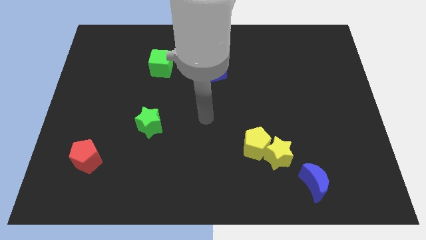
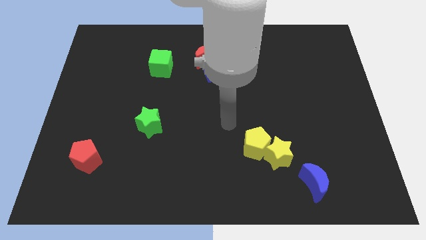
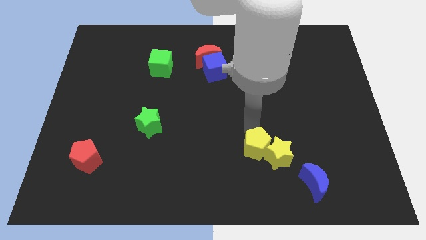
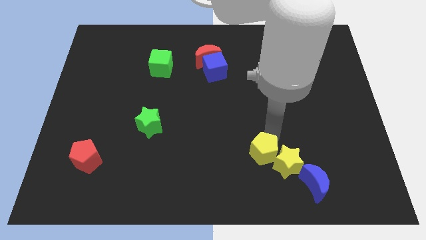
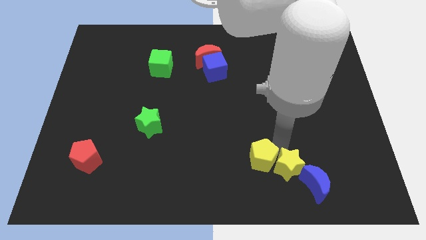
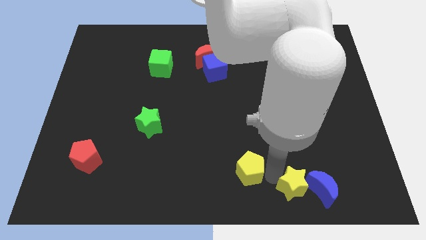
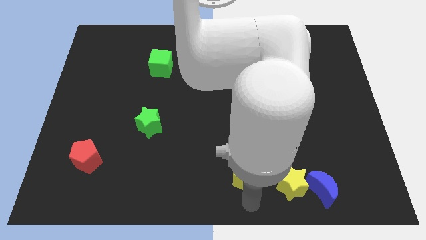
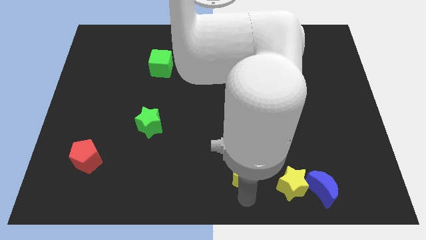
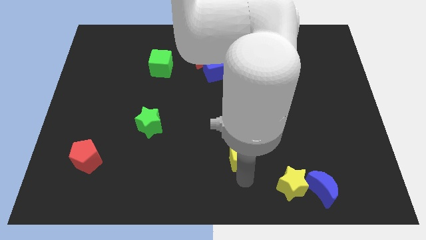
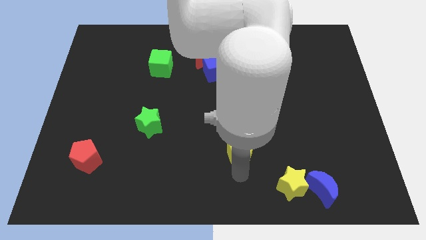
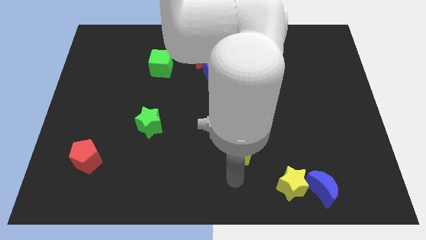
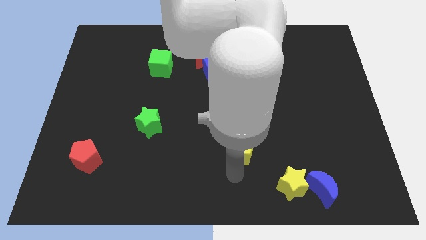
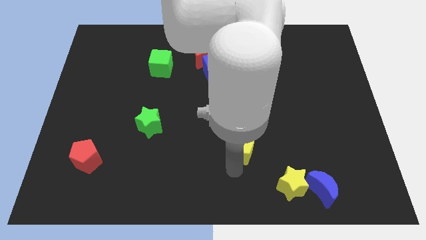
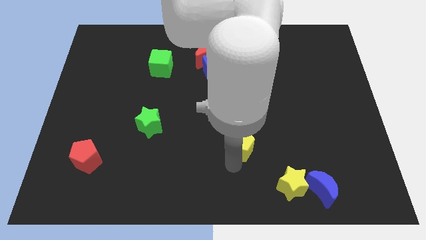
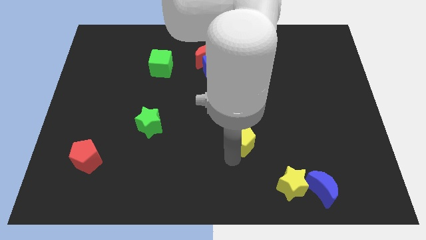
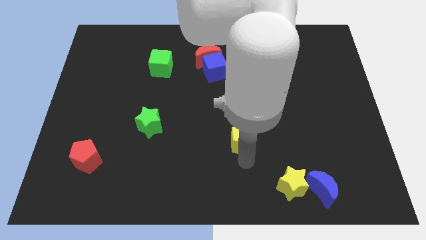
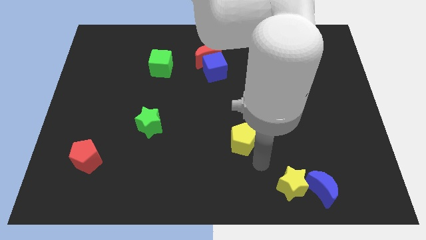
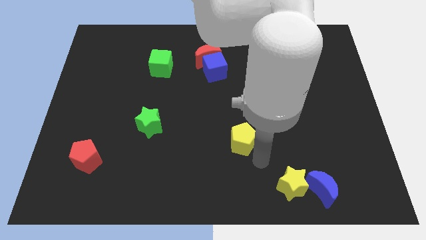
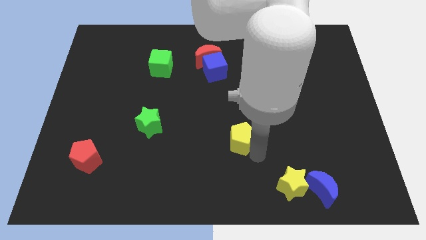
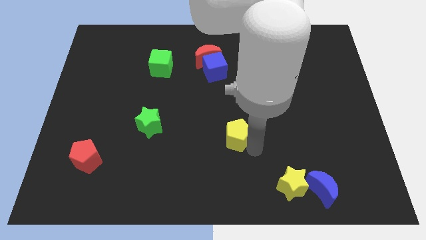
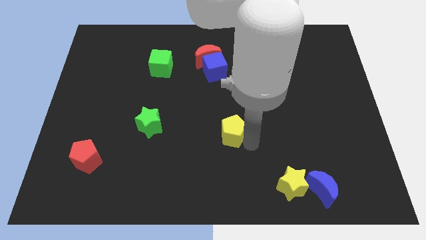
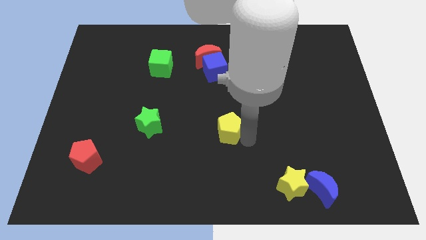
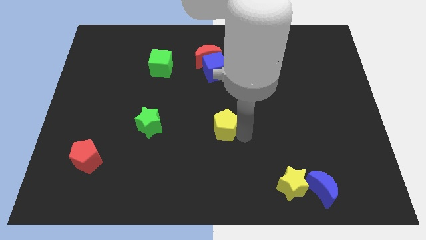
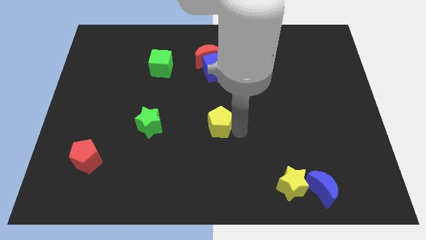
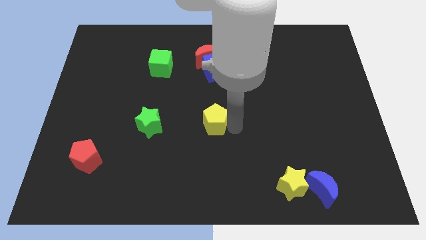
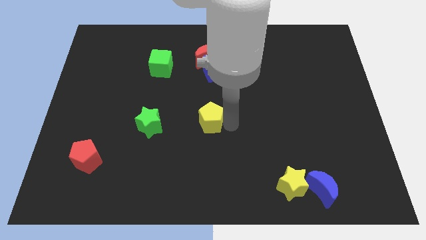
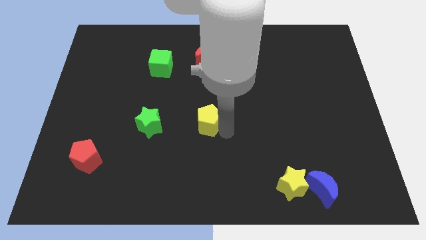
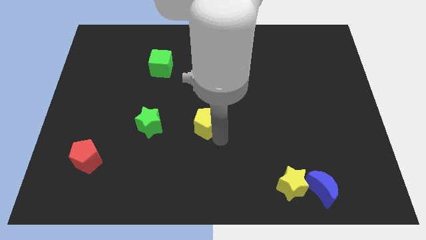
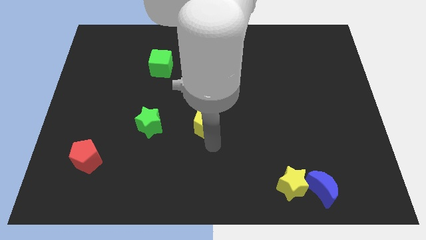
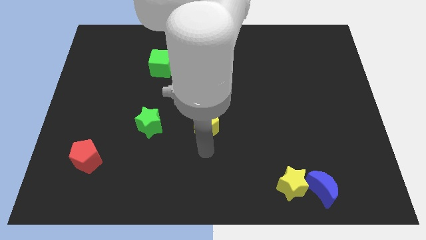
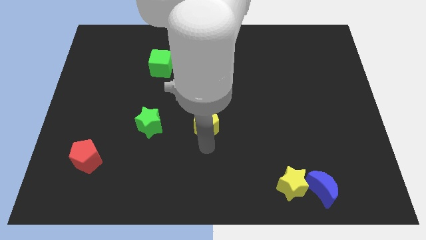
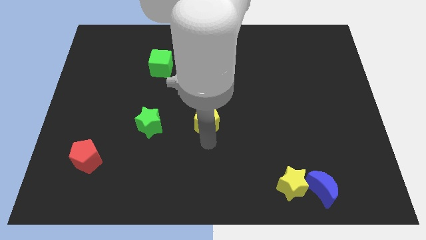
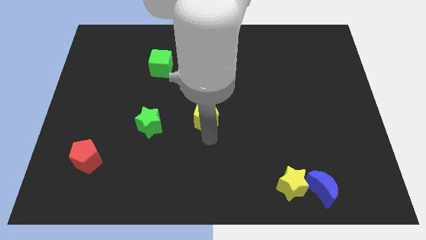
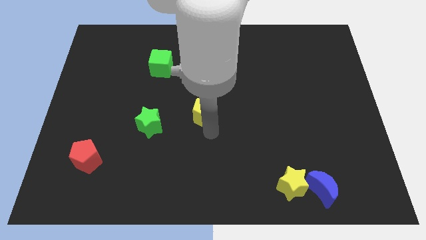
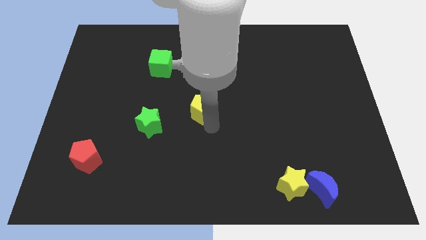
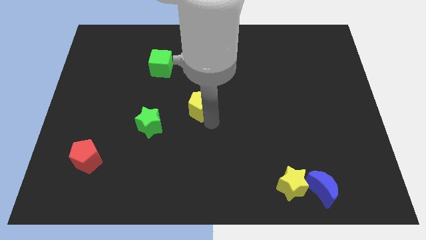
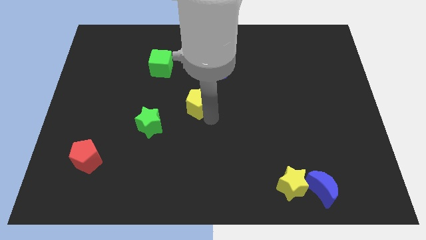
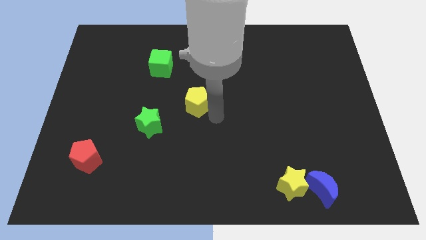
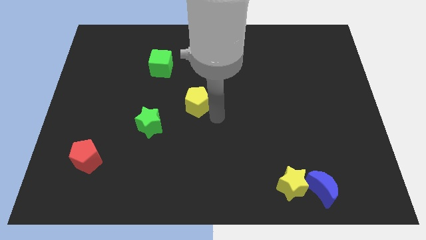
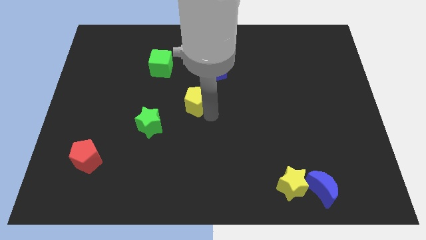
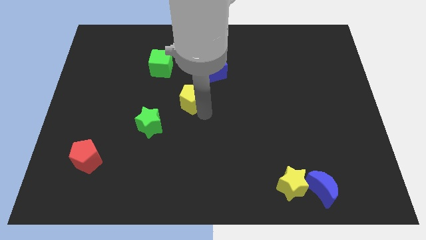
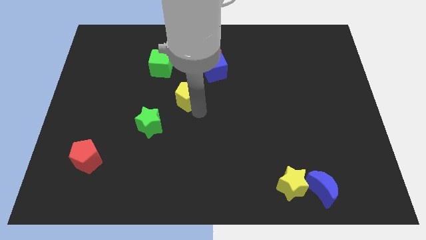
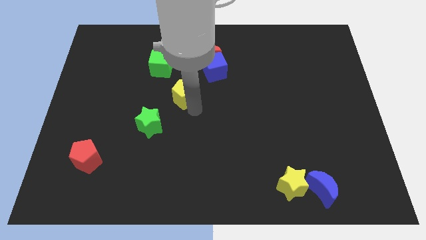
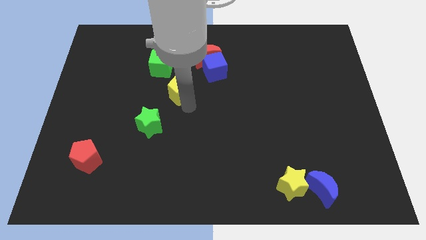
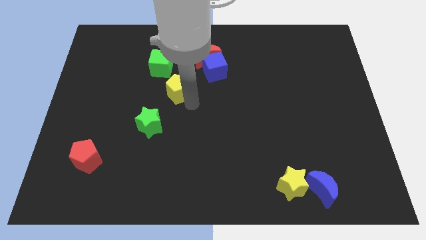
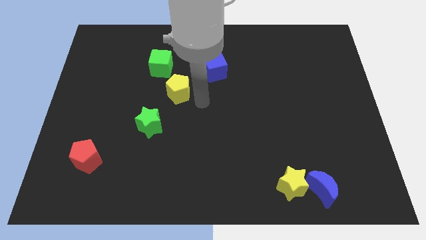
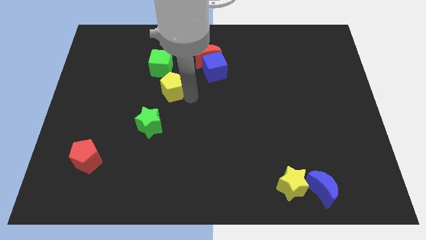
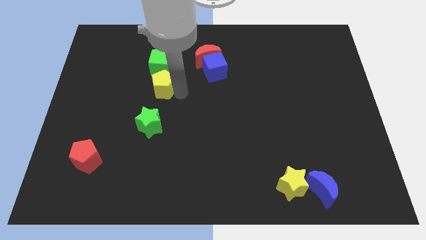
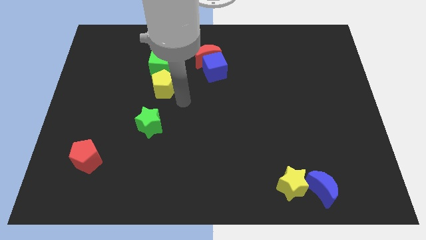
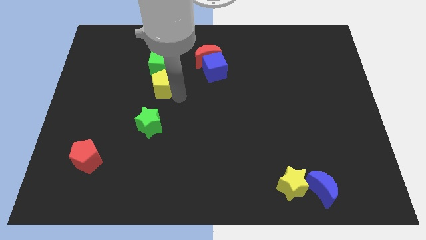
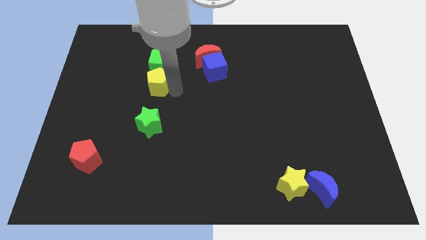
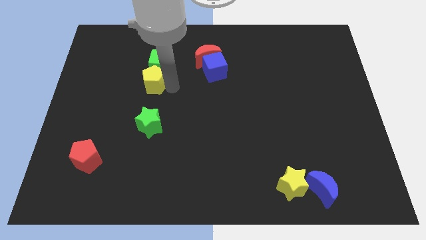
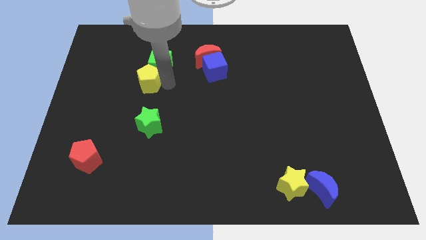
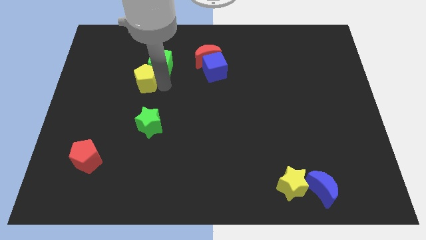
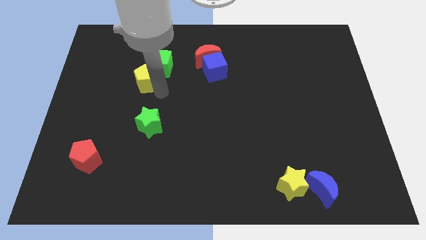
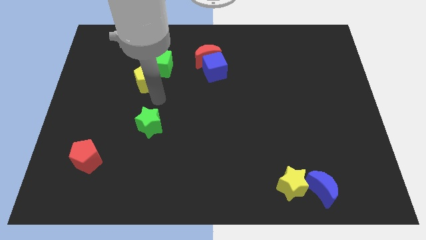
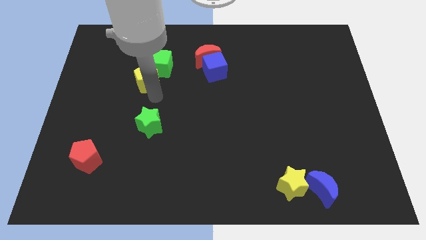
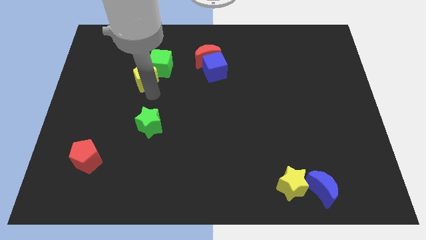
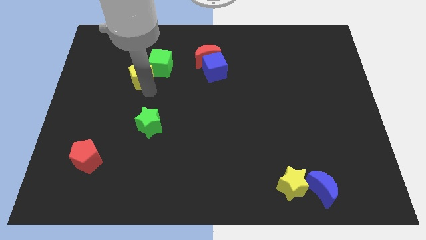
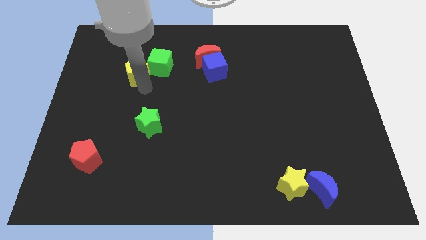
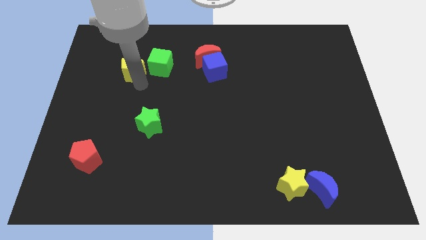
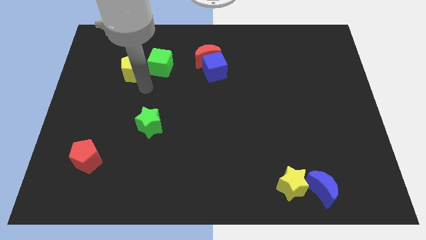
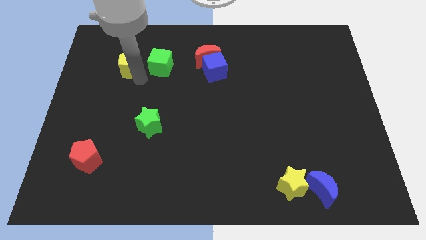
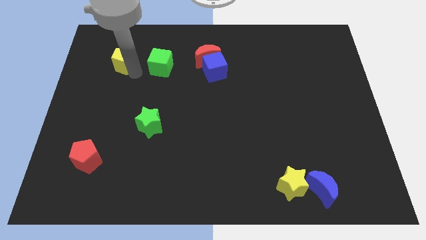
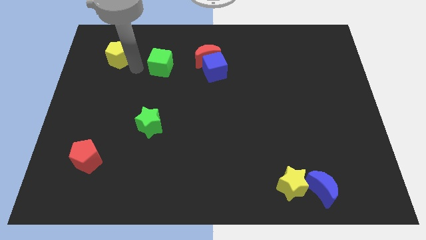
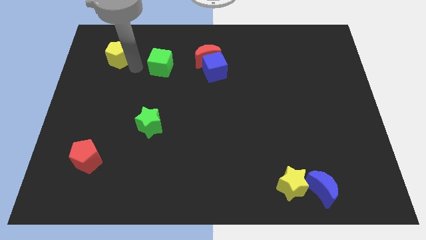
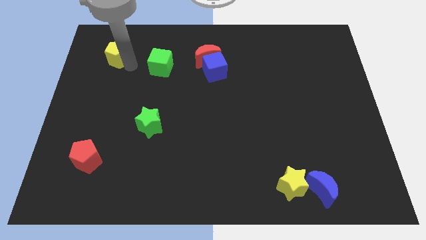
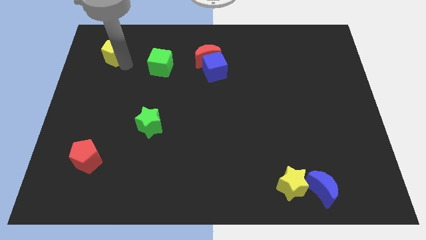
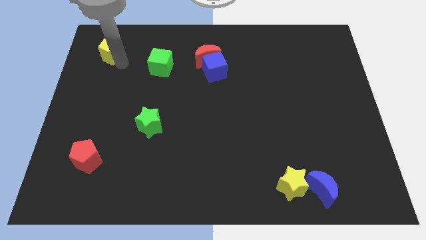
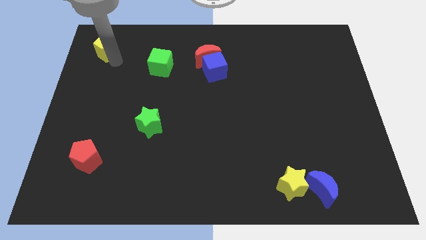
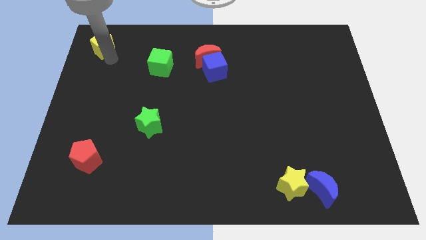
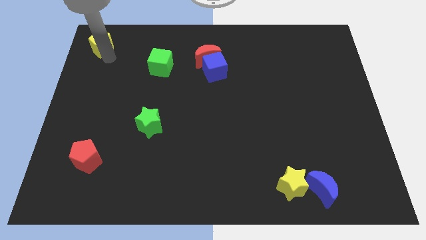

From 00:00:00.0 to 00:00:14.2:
put the yellow pentagon to the top left of the board
